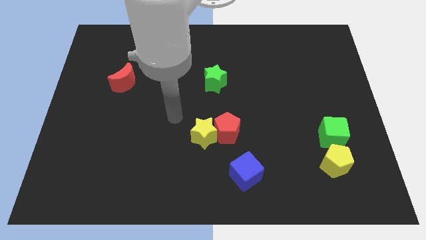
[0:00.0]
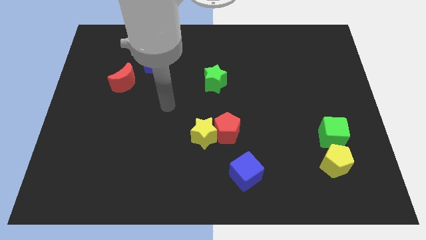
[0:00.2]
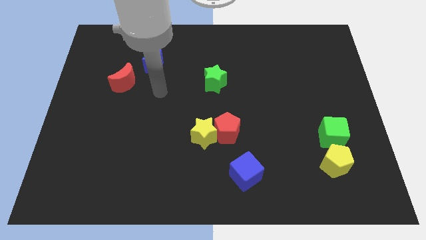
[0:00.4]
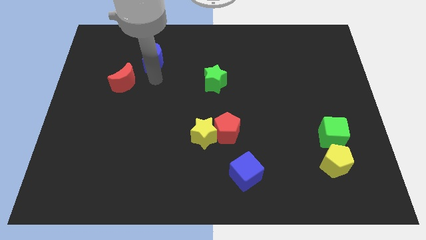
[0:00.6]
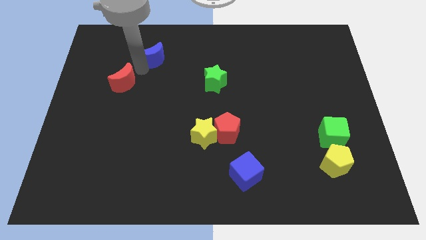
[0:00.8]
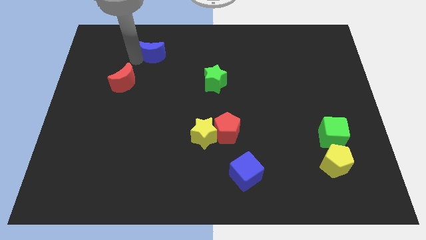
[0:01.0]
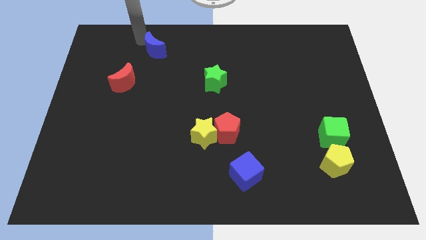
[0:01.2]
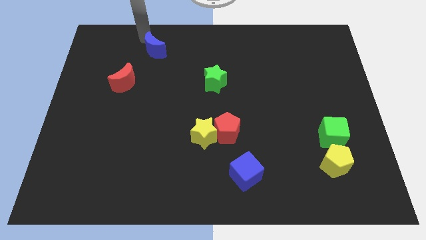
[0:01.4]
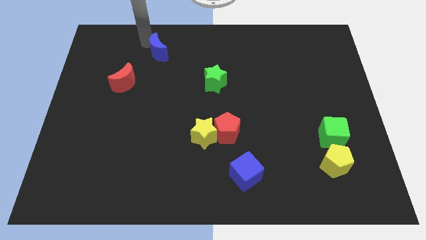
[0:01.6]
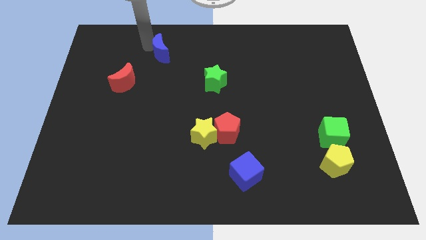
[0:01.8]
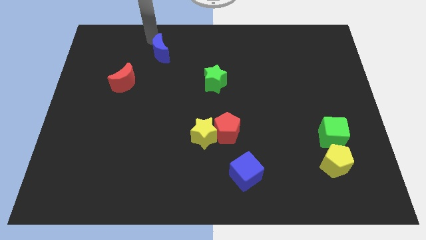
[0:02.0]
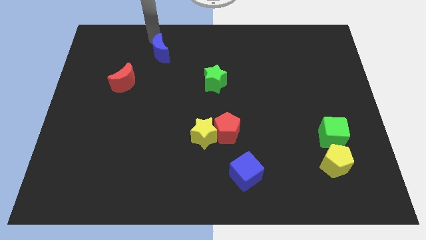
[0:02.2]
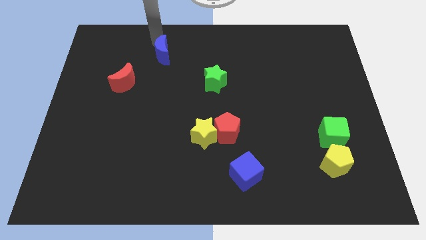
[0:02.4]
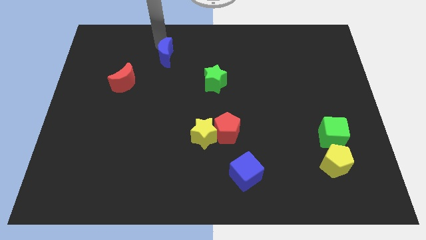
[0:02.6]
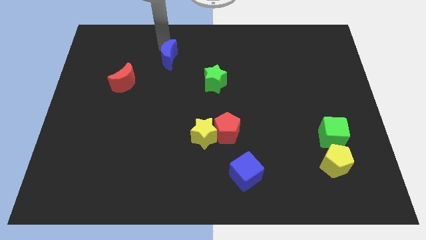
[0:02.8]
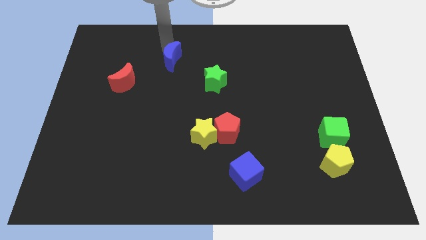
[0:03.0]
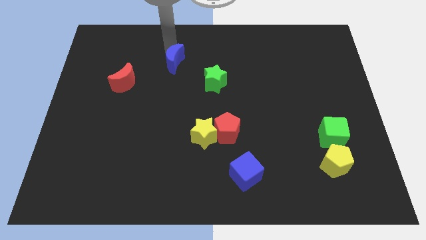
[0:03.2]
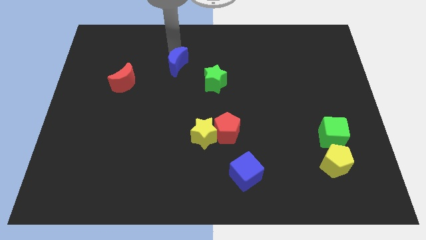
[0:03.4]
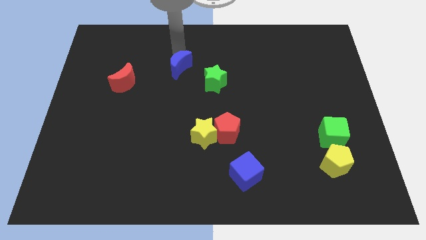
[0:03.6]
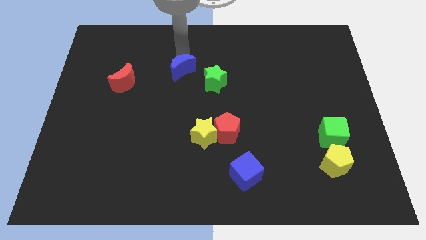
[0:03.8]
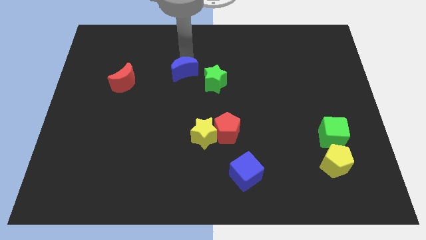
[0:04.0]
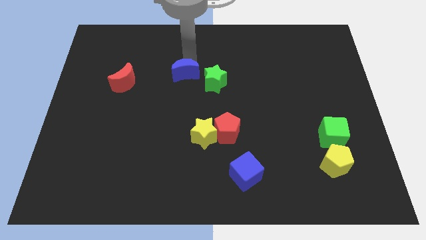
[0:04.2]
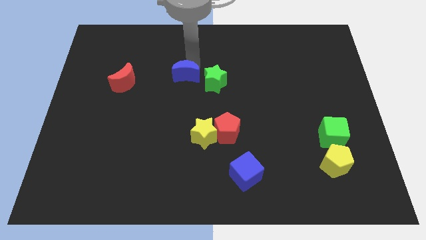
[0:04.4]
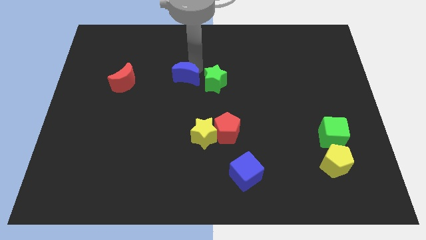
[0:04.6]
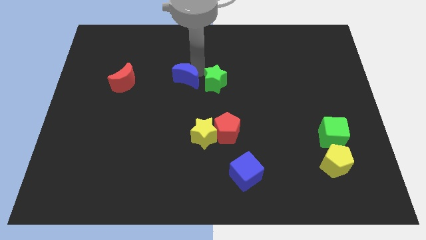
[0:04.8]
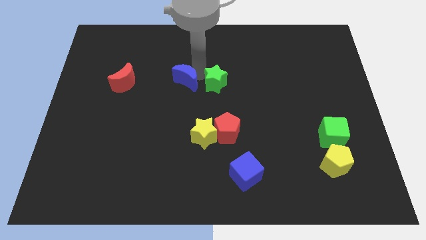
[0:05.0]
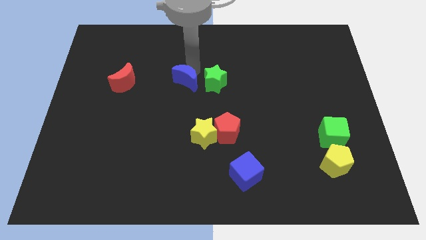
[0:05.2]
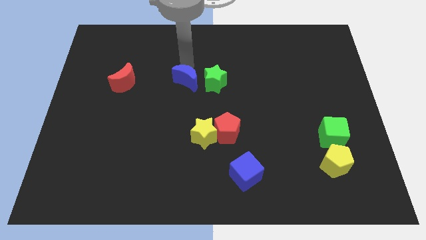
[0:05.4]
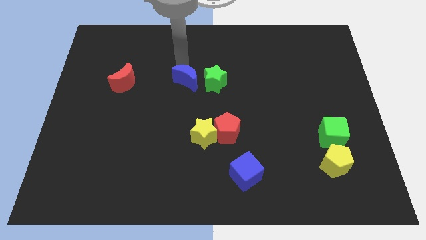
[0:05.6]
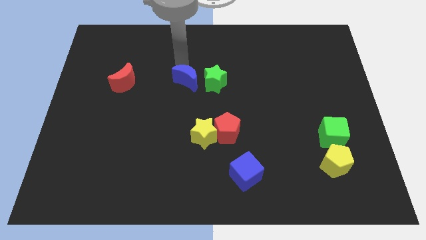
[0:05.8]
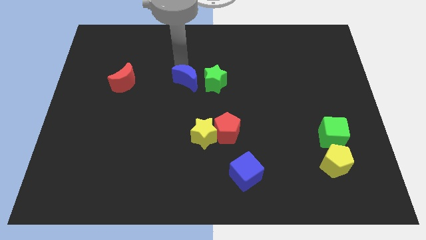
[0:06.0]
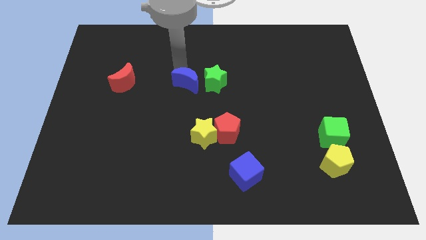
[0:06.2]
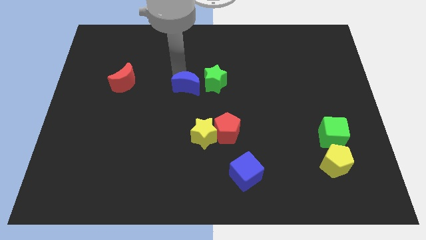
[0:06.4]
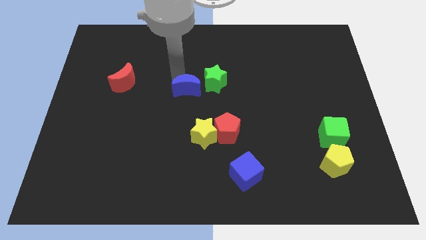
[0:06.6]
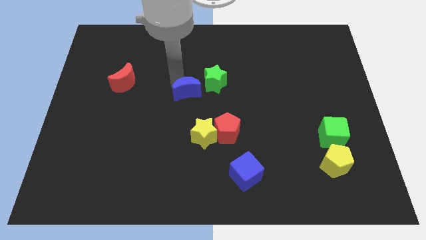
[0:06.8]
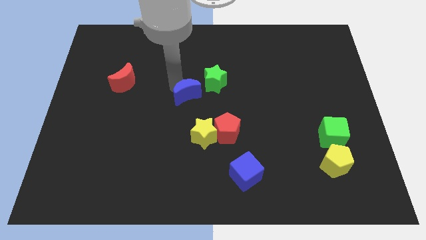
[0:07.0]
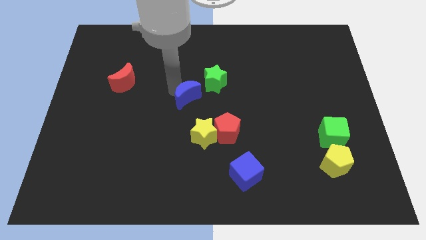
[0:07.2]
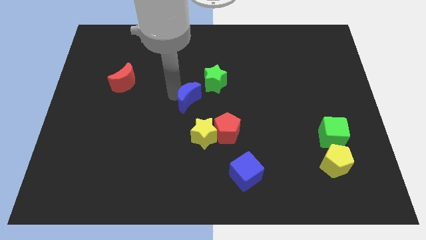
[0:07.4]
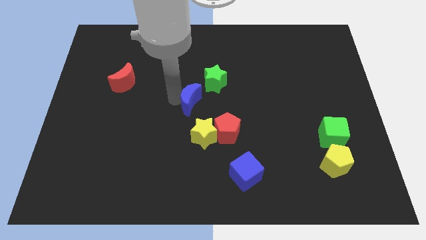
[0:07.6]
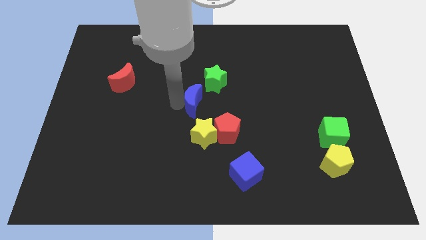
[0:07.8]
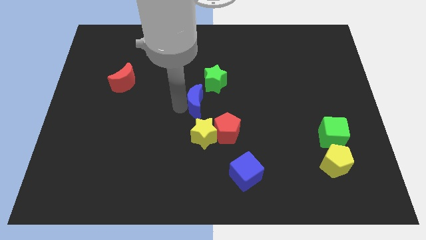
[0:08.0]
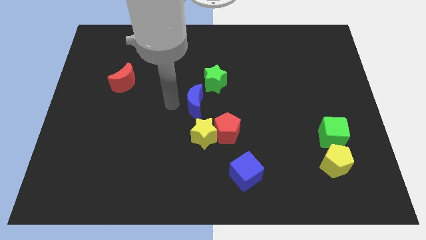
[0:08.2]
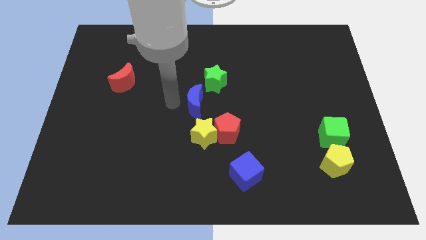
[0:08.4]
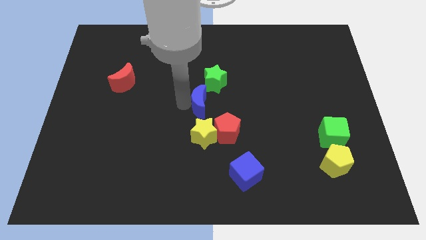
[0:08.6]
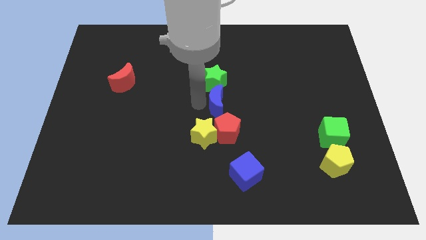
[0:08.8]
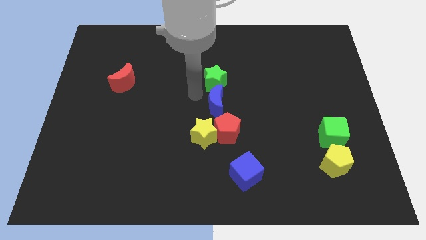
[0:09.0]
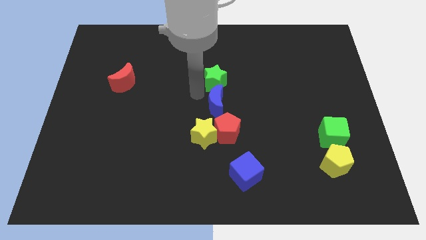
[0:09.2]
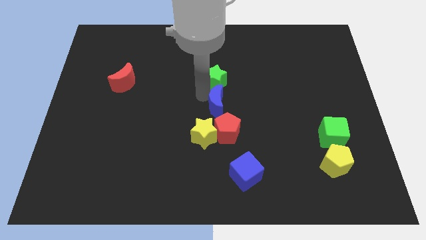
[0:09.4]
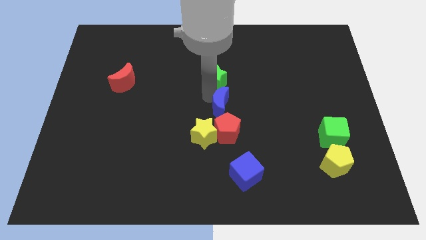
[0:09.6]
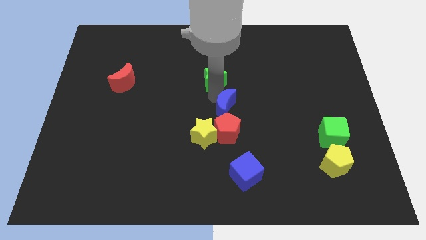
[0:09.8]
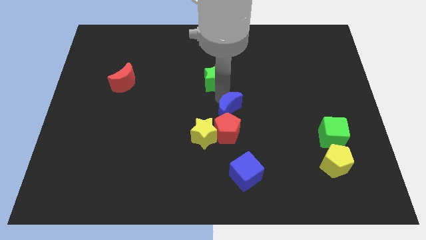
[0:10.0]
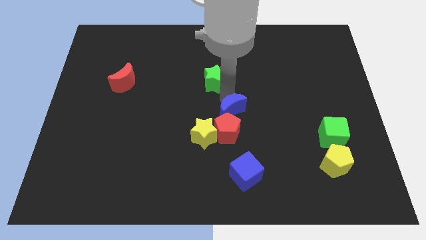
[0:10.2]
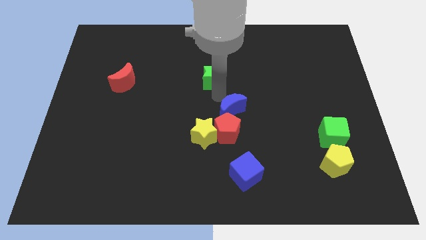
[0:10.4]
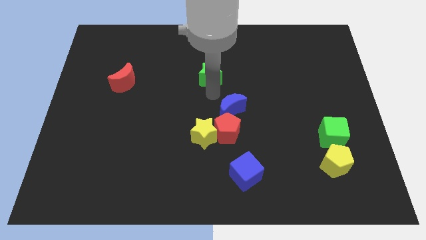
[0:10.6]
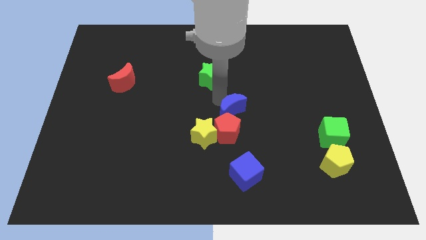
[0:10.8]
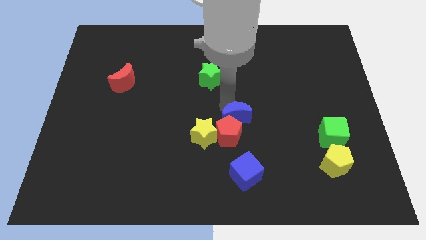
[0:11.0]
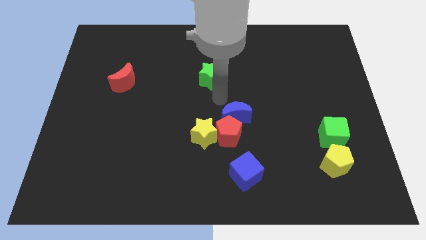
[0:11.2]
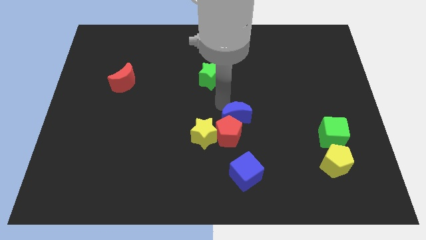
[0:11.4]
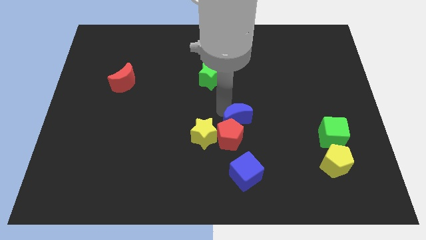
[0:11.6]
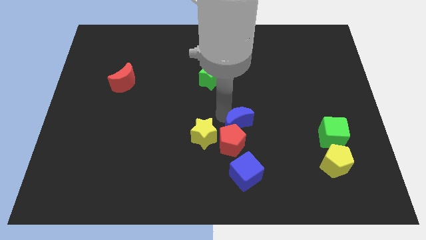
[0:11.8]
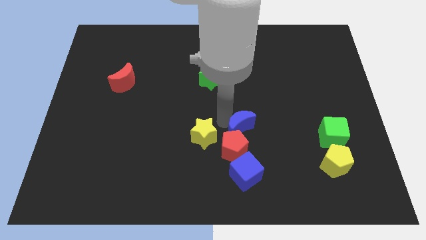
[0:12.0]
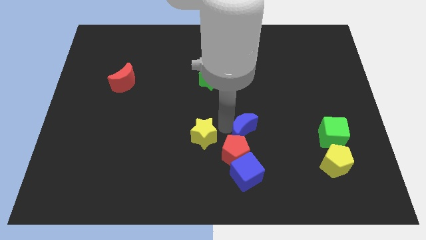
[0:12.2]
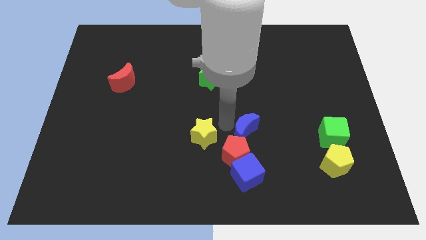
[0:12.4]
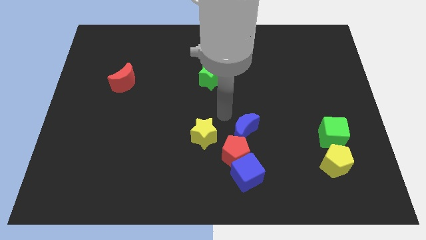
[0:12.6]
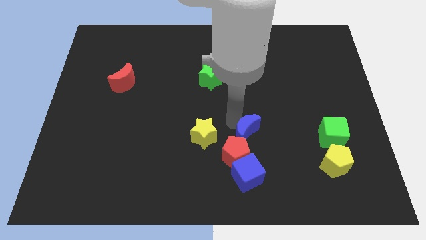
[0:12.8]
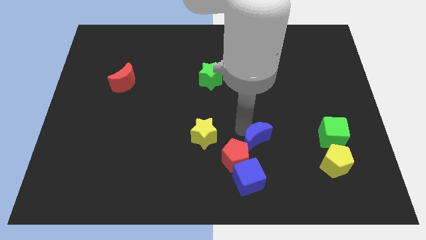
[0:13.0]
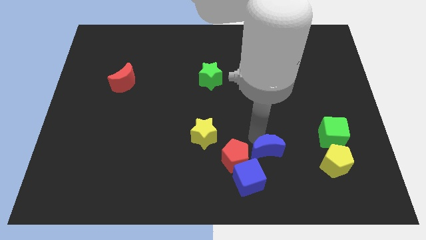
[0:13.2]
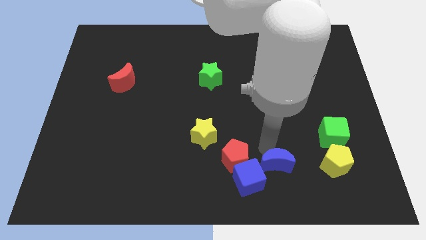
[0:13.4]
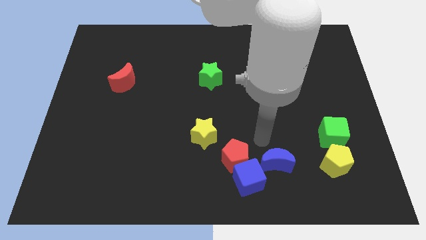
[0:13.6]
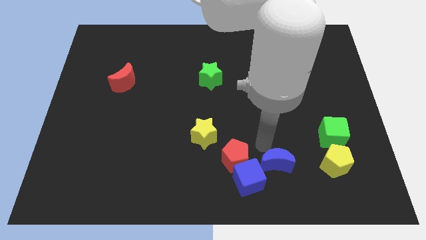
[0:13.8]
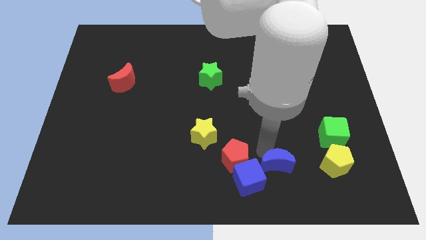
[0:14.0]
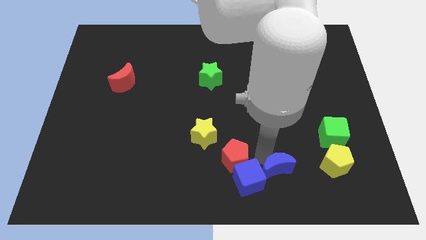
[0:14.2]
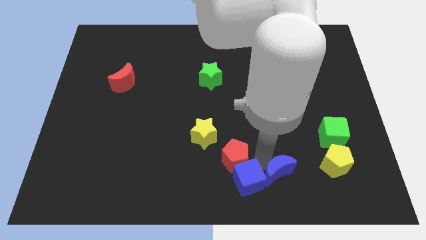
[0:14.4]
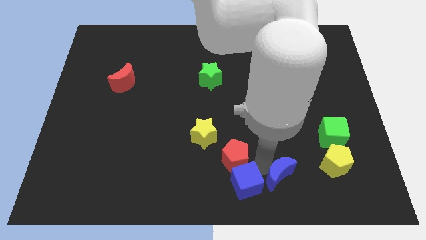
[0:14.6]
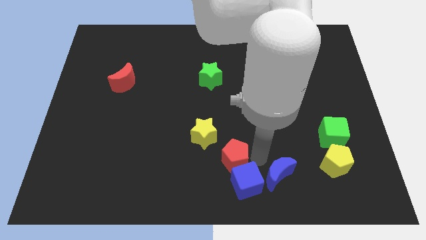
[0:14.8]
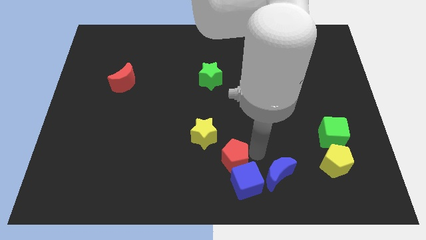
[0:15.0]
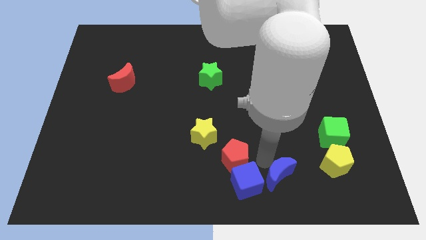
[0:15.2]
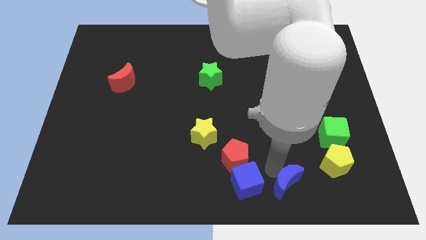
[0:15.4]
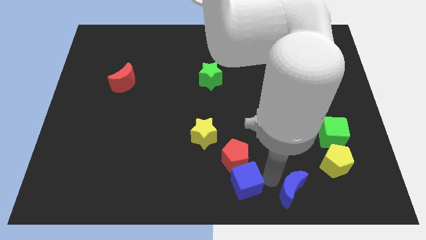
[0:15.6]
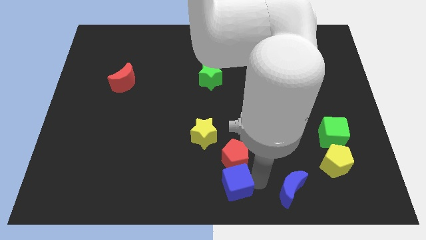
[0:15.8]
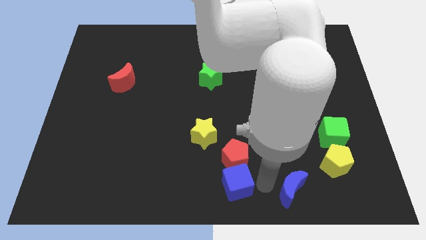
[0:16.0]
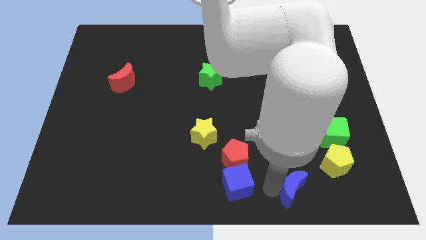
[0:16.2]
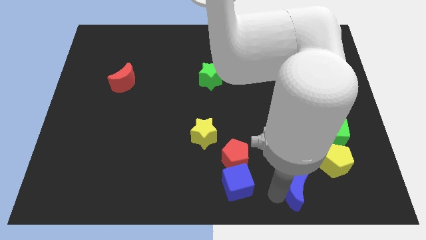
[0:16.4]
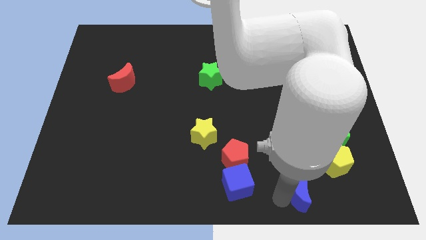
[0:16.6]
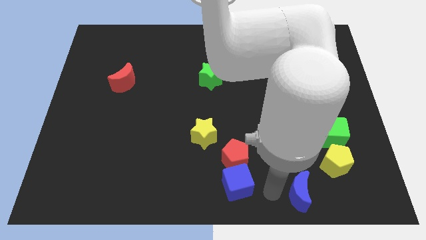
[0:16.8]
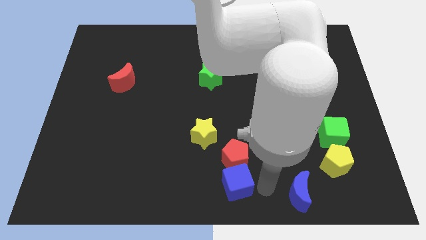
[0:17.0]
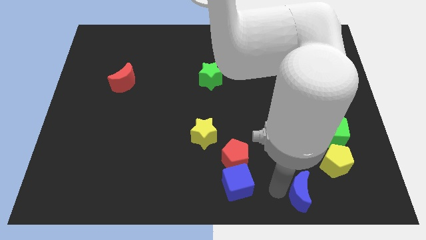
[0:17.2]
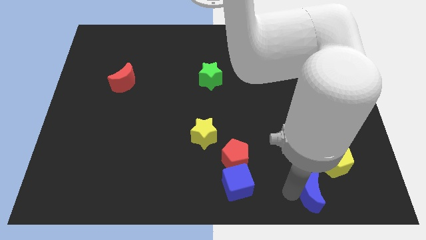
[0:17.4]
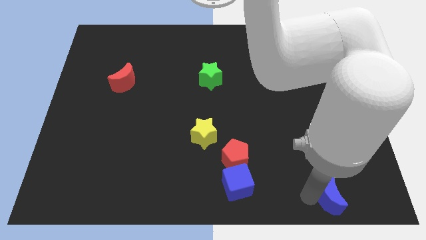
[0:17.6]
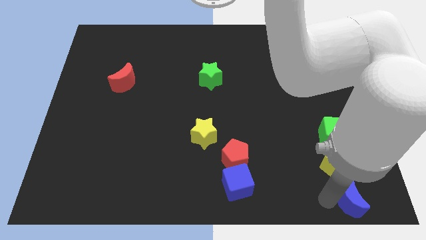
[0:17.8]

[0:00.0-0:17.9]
move the blue moon to the bottom right
